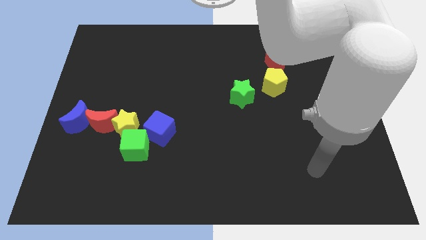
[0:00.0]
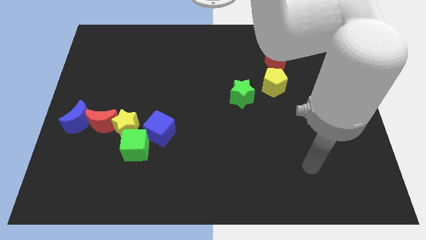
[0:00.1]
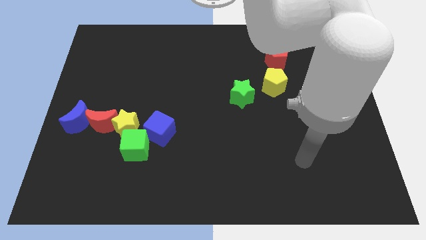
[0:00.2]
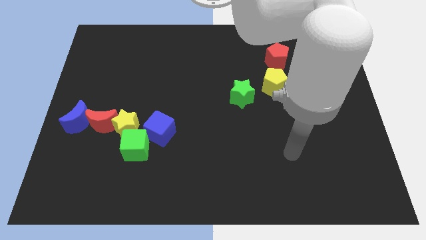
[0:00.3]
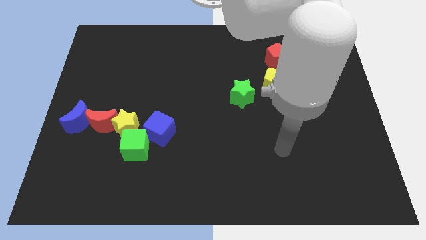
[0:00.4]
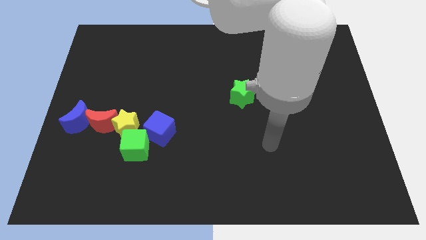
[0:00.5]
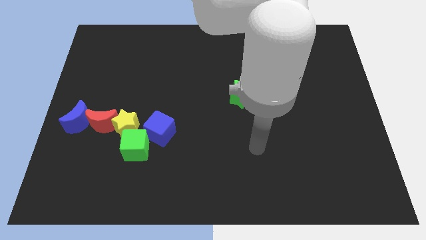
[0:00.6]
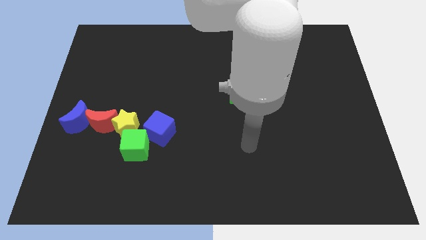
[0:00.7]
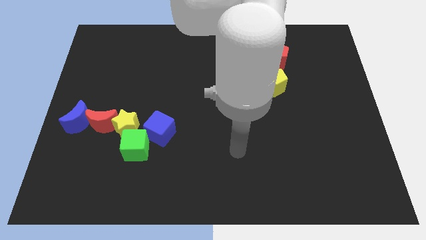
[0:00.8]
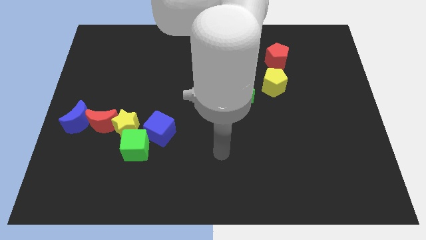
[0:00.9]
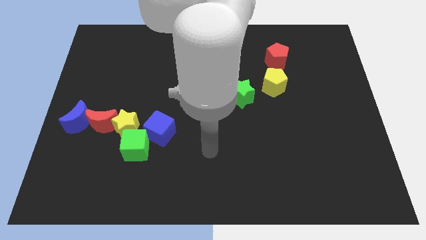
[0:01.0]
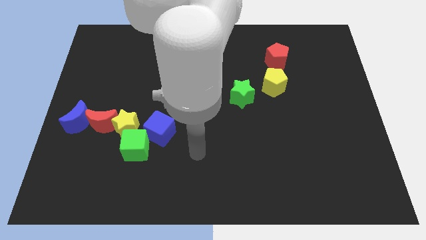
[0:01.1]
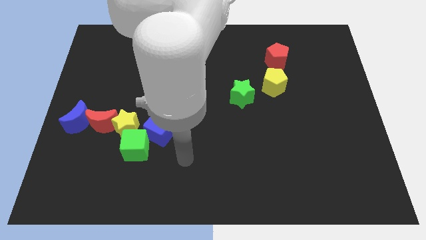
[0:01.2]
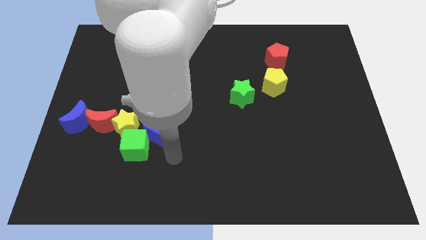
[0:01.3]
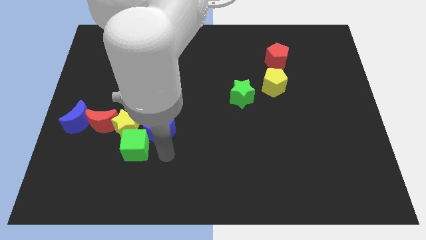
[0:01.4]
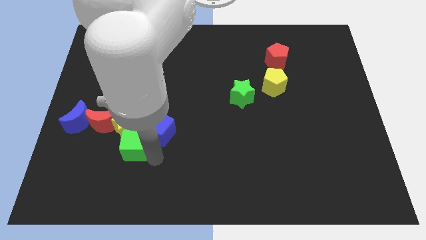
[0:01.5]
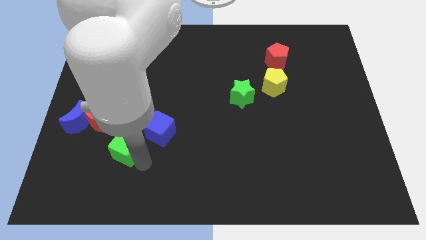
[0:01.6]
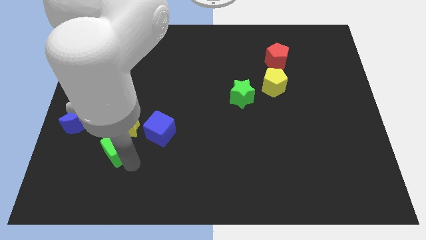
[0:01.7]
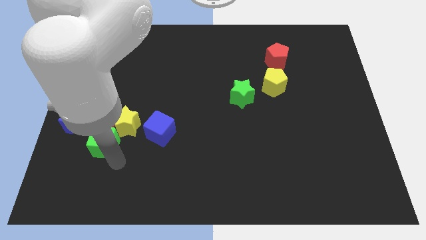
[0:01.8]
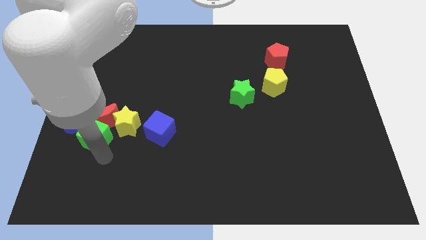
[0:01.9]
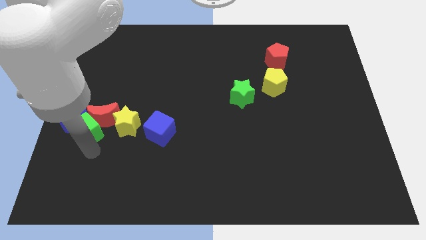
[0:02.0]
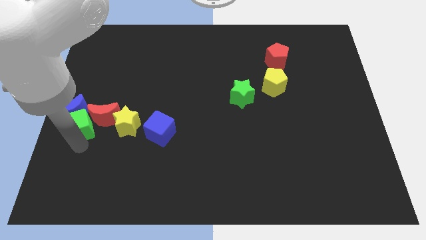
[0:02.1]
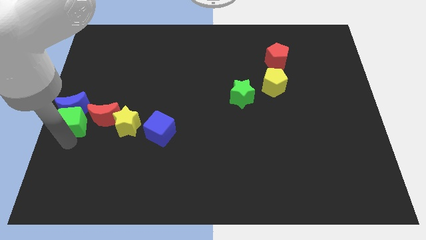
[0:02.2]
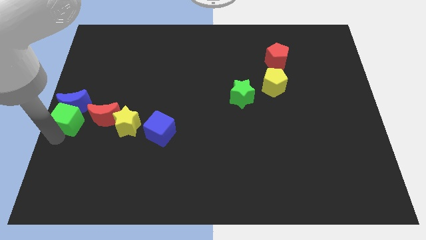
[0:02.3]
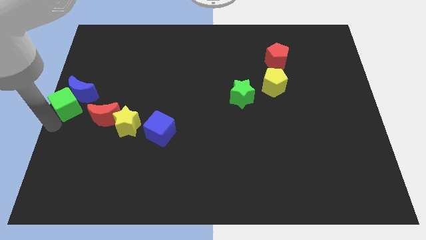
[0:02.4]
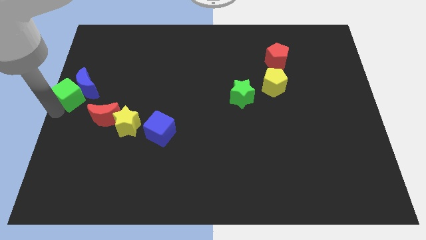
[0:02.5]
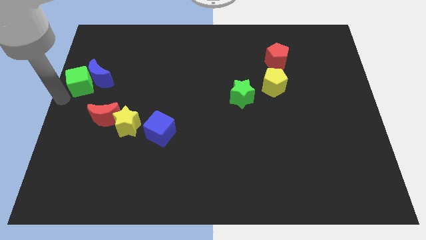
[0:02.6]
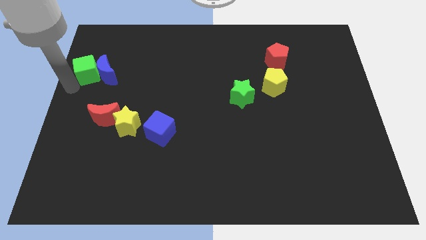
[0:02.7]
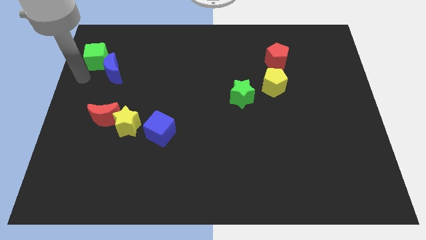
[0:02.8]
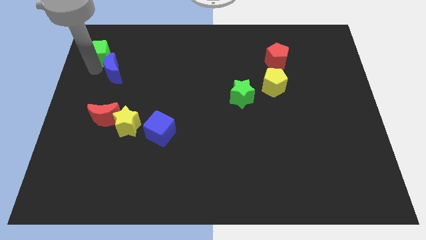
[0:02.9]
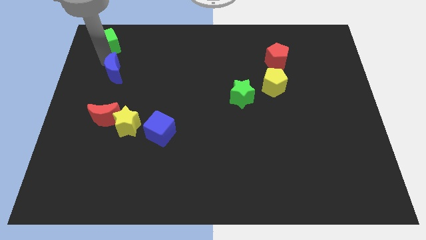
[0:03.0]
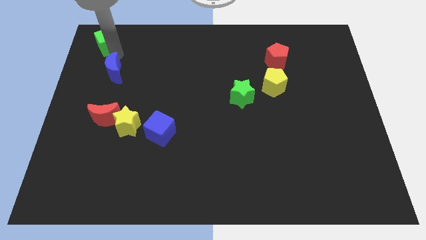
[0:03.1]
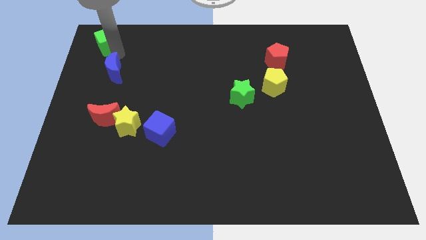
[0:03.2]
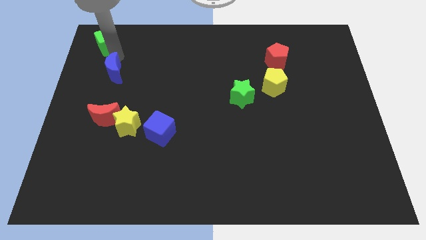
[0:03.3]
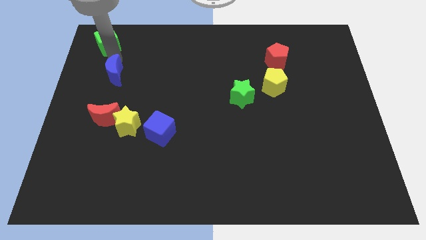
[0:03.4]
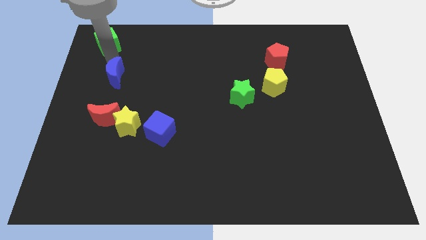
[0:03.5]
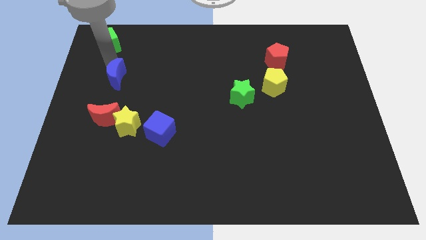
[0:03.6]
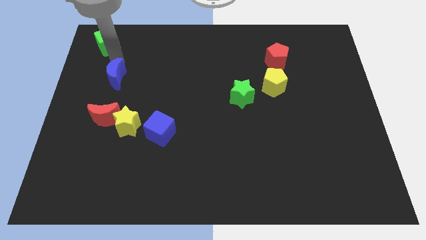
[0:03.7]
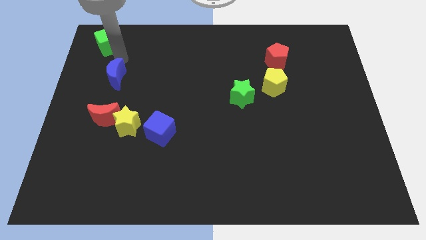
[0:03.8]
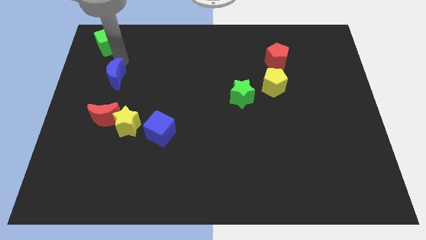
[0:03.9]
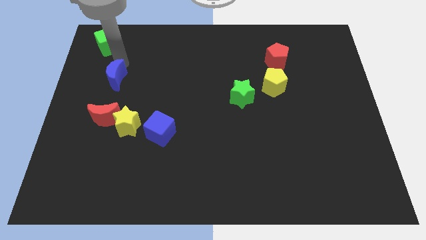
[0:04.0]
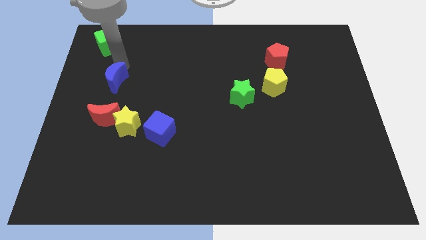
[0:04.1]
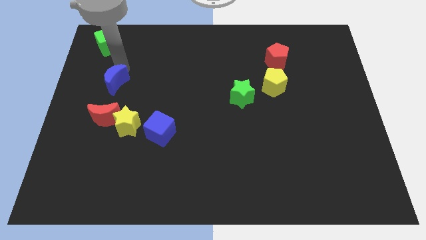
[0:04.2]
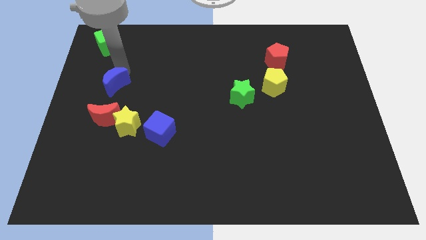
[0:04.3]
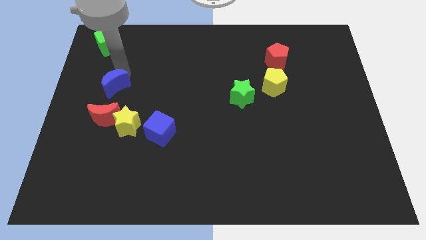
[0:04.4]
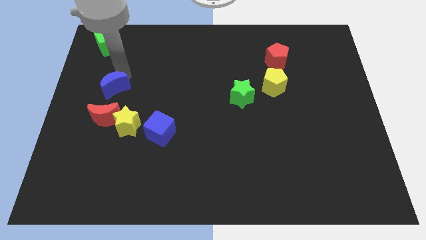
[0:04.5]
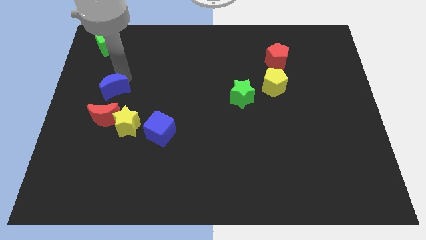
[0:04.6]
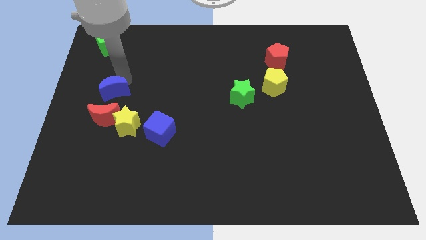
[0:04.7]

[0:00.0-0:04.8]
move the blue moon to the top left of the yellow star
